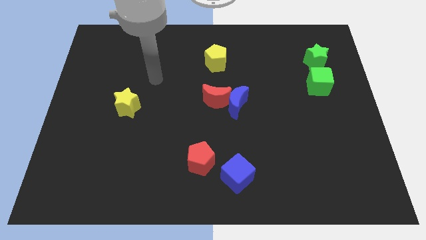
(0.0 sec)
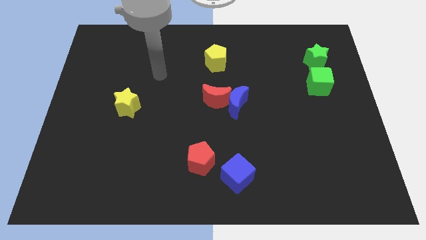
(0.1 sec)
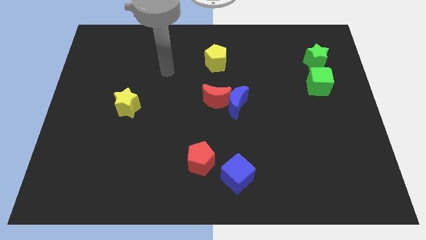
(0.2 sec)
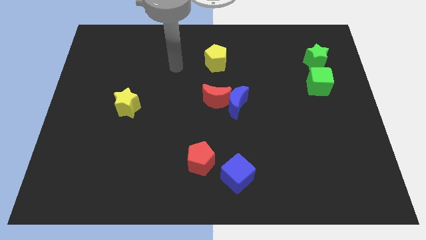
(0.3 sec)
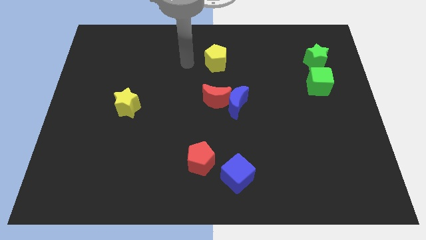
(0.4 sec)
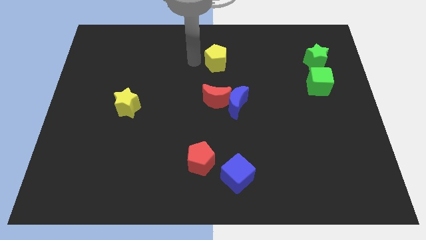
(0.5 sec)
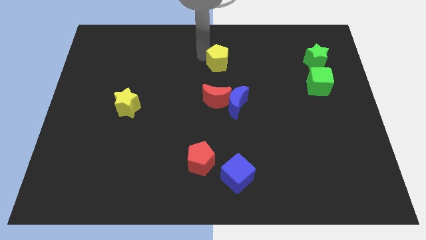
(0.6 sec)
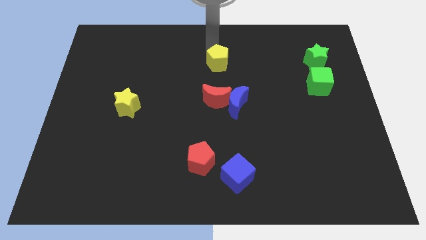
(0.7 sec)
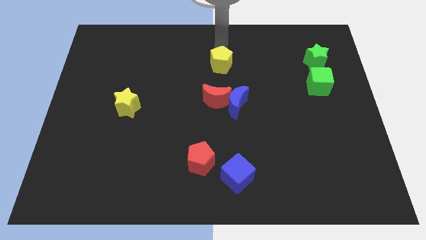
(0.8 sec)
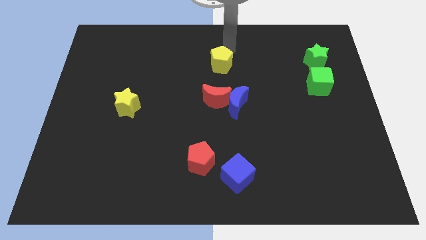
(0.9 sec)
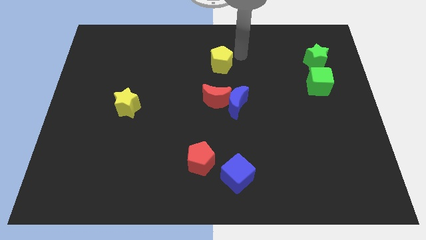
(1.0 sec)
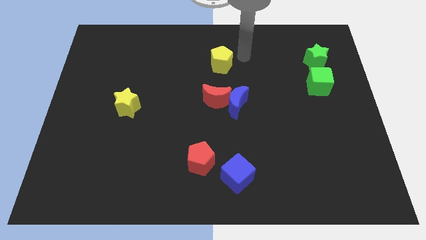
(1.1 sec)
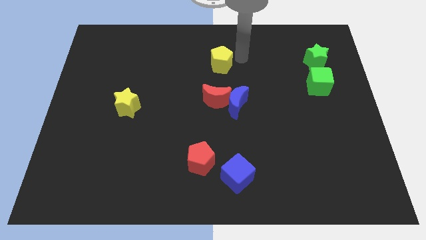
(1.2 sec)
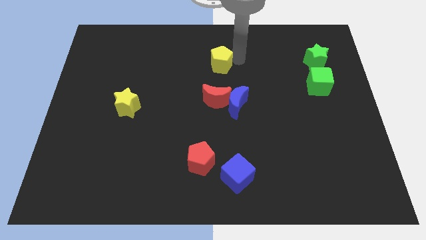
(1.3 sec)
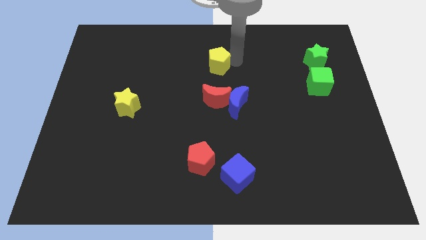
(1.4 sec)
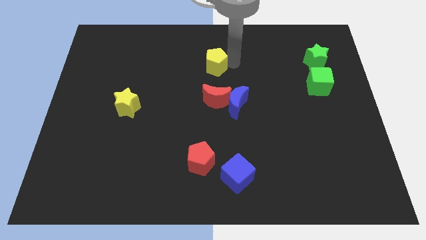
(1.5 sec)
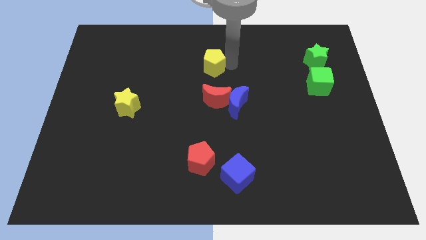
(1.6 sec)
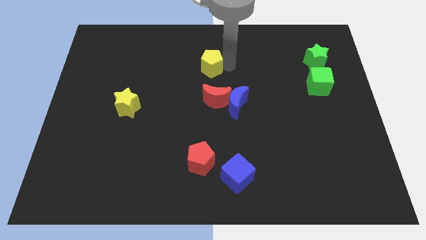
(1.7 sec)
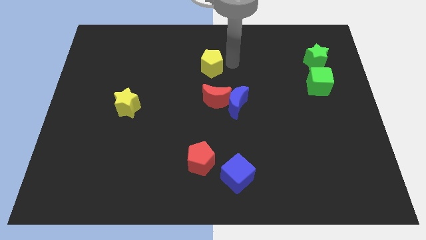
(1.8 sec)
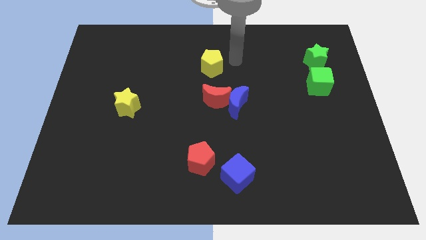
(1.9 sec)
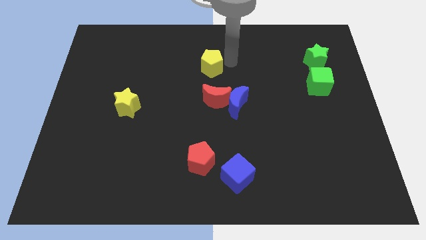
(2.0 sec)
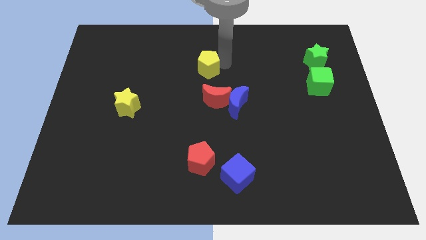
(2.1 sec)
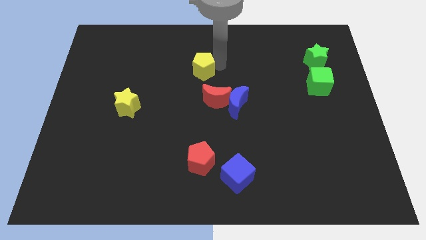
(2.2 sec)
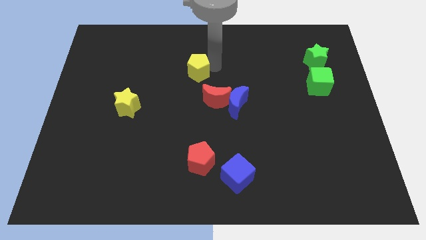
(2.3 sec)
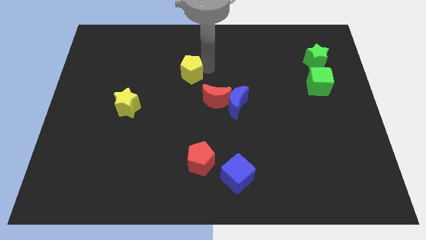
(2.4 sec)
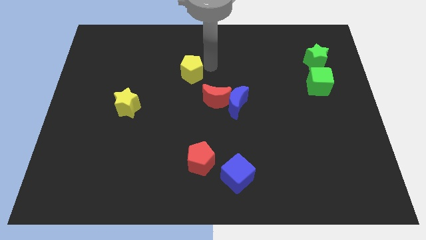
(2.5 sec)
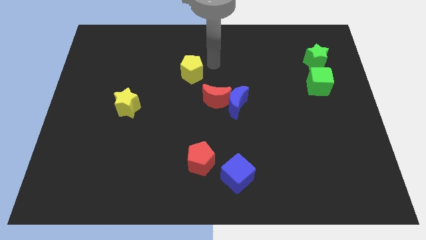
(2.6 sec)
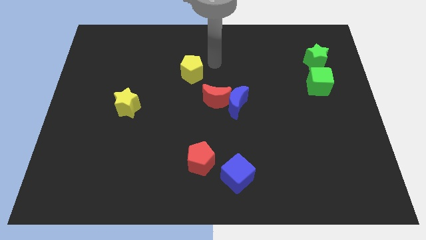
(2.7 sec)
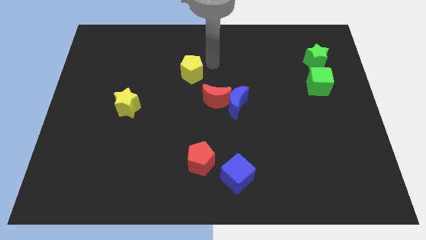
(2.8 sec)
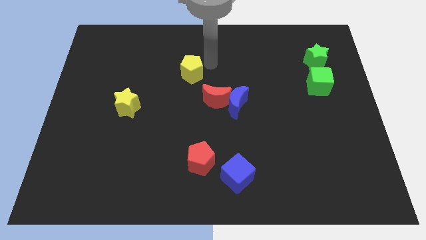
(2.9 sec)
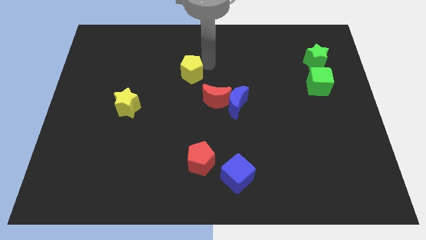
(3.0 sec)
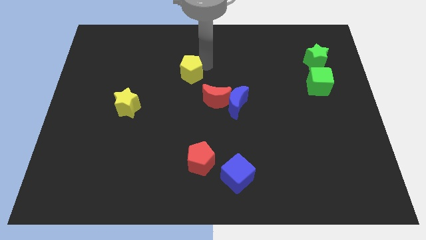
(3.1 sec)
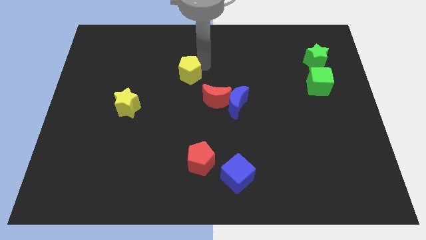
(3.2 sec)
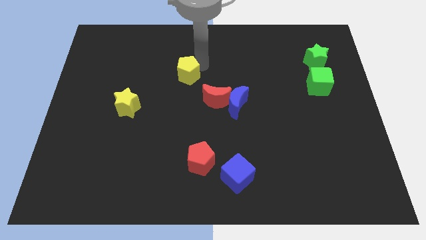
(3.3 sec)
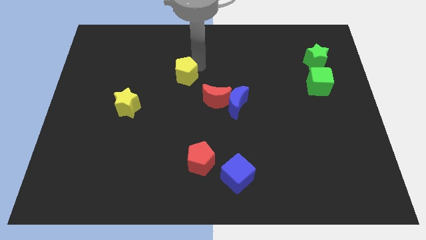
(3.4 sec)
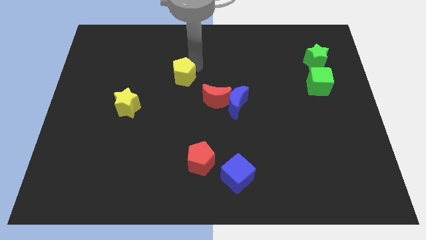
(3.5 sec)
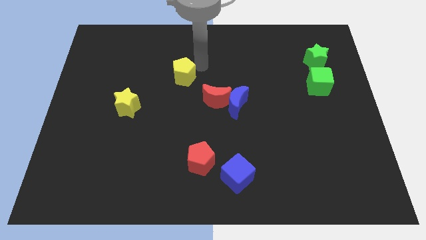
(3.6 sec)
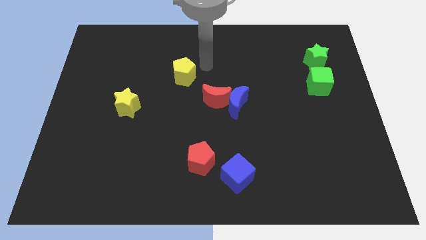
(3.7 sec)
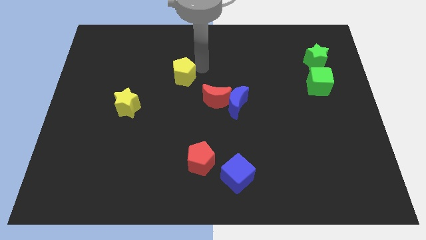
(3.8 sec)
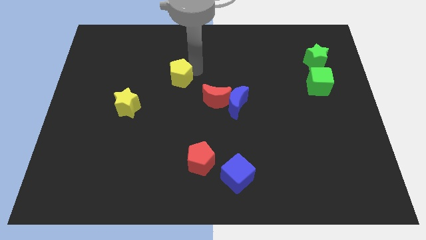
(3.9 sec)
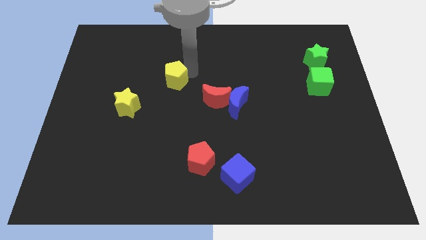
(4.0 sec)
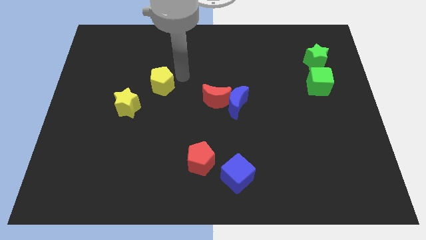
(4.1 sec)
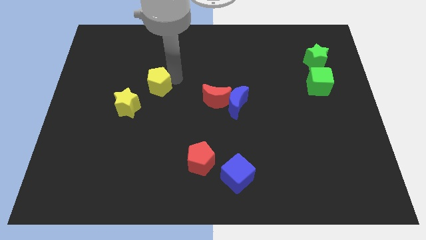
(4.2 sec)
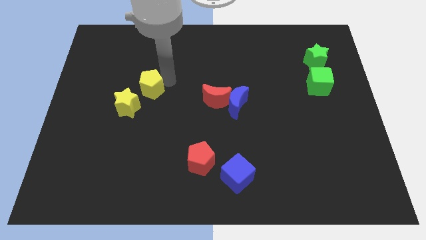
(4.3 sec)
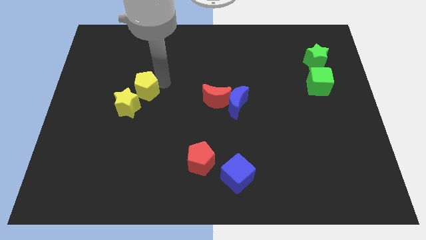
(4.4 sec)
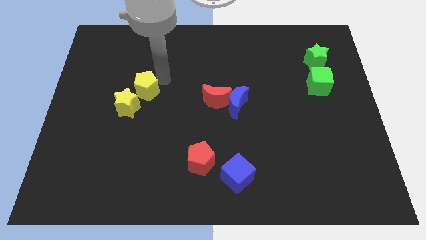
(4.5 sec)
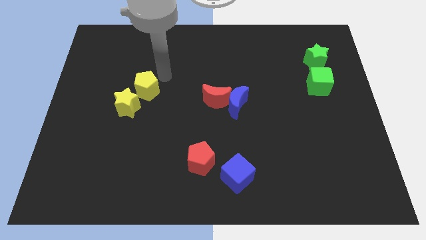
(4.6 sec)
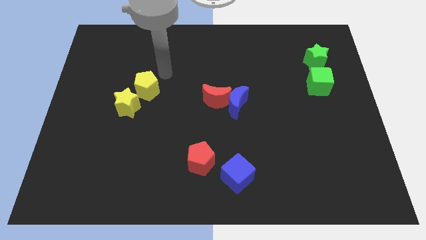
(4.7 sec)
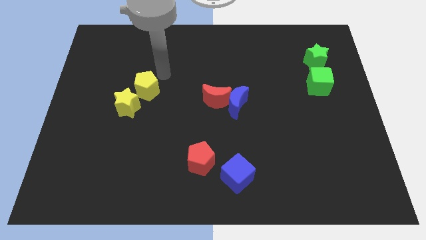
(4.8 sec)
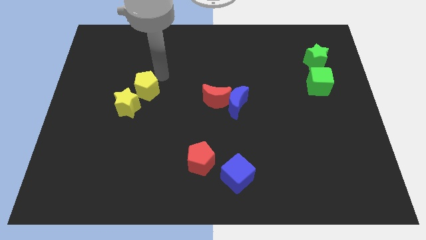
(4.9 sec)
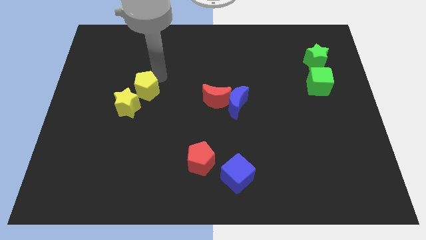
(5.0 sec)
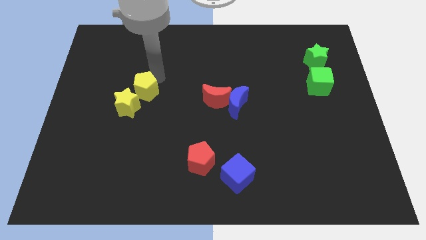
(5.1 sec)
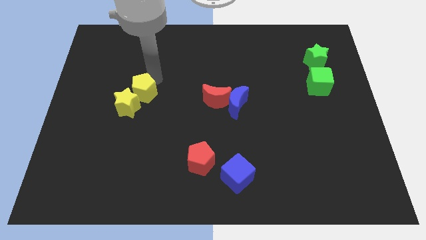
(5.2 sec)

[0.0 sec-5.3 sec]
slide the yellow pentagon close to the yellow star

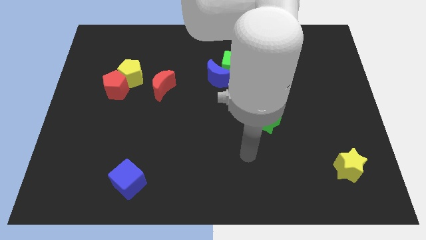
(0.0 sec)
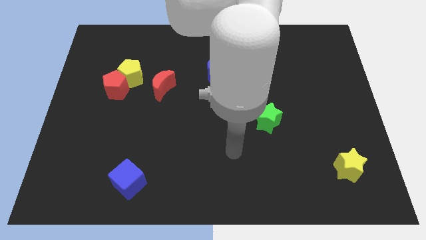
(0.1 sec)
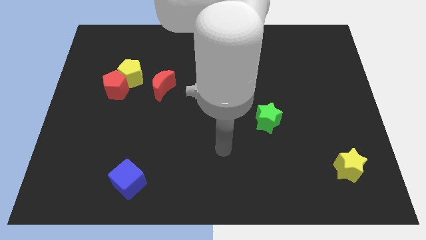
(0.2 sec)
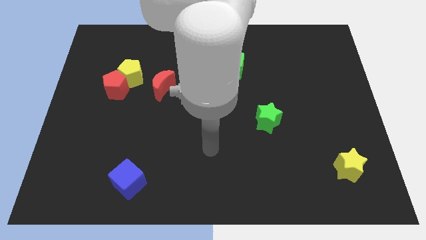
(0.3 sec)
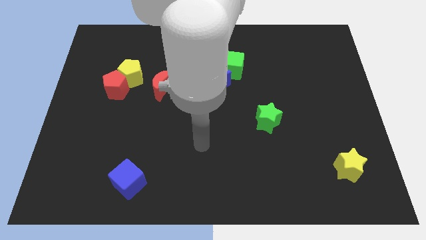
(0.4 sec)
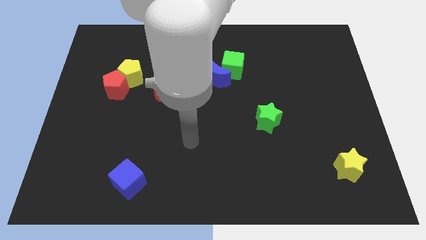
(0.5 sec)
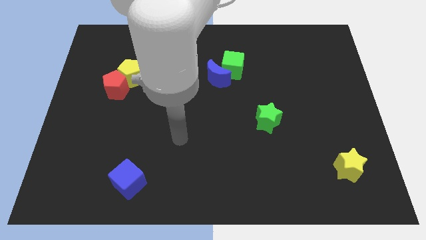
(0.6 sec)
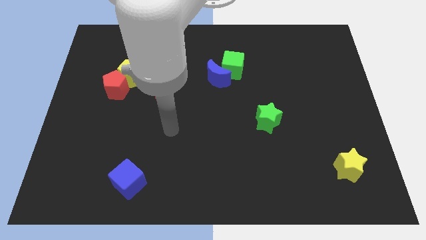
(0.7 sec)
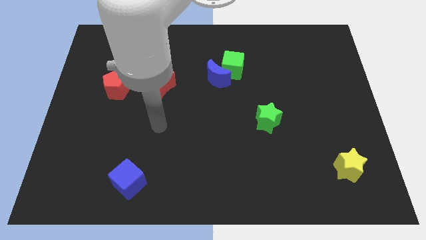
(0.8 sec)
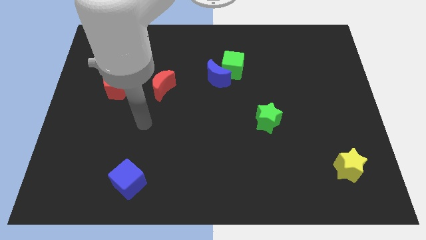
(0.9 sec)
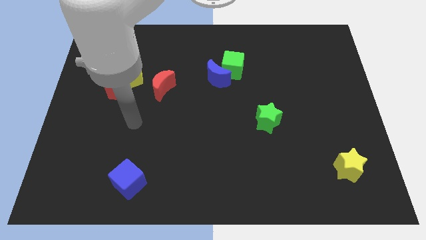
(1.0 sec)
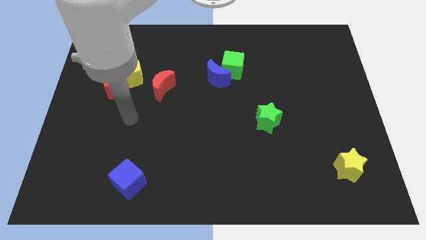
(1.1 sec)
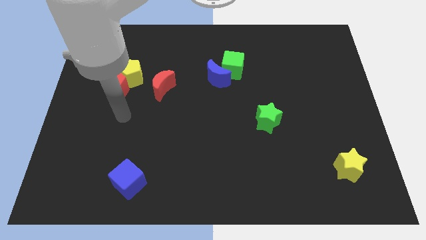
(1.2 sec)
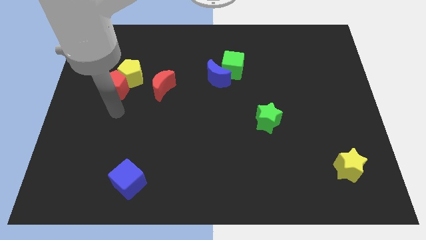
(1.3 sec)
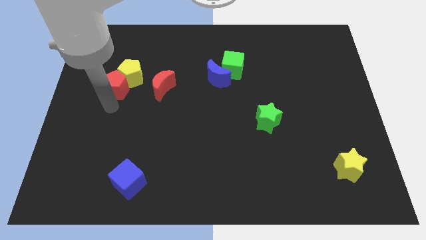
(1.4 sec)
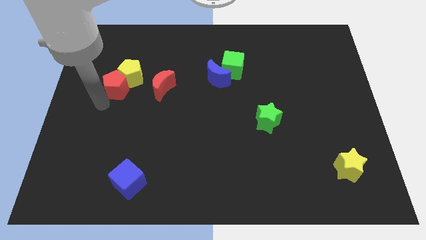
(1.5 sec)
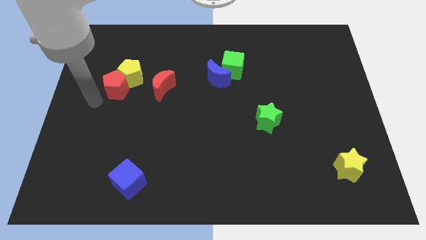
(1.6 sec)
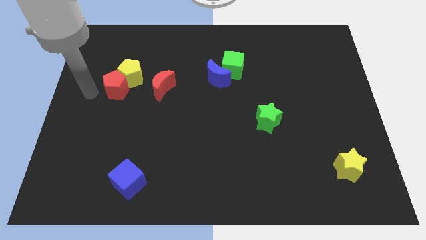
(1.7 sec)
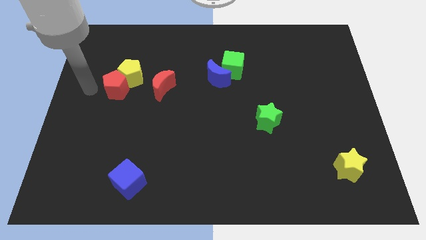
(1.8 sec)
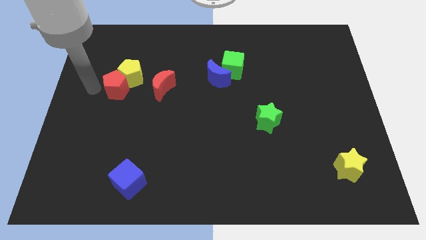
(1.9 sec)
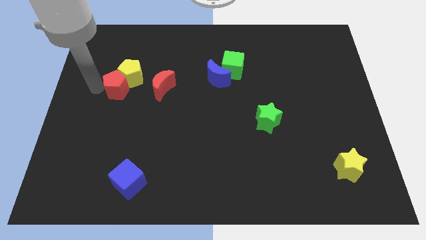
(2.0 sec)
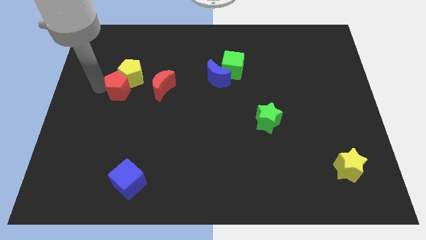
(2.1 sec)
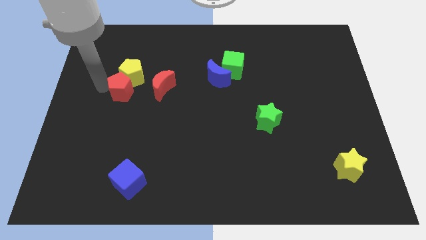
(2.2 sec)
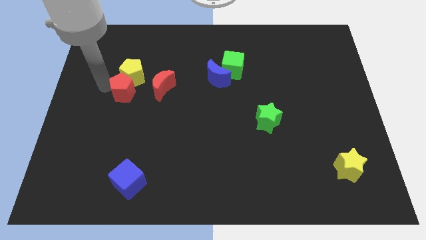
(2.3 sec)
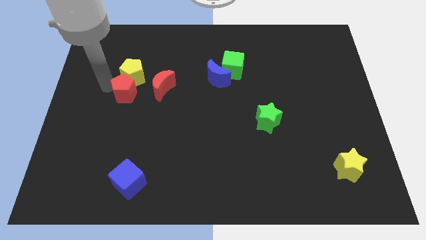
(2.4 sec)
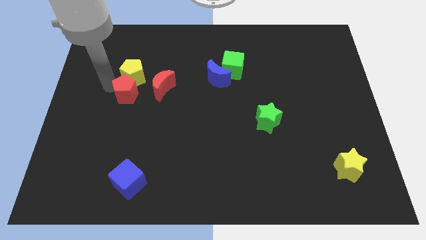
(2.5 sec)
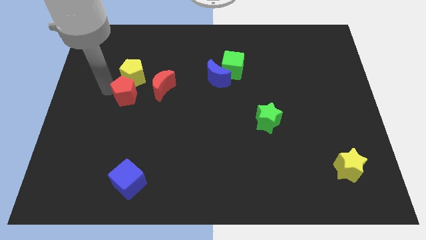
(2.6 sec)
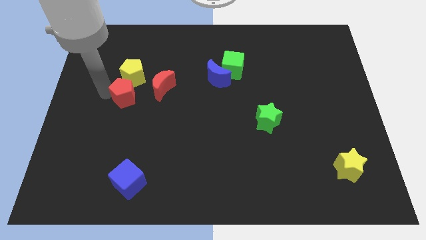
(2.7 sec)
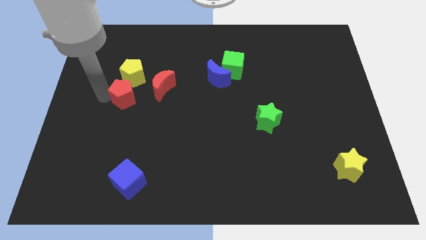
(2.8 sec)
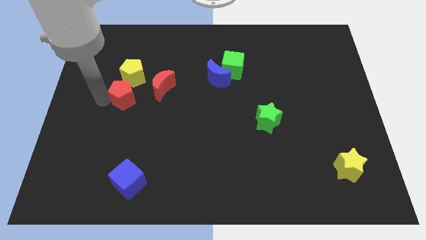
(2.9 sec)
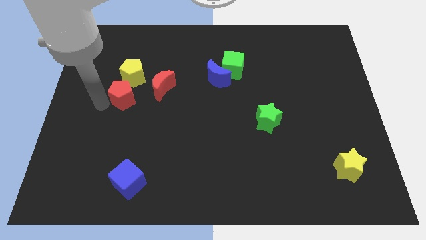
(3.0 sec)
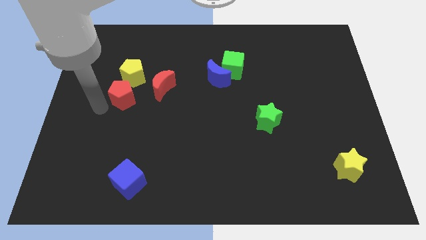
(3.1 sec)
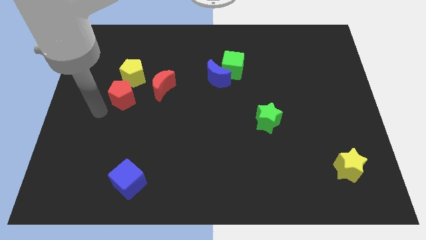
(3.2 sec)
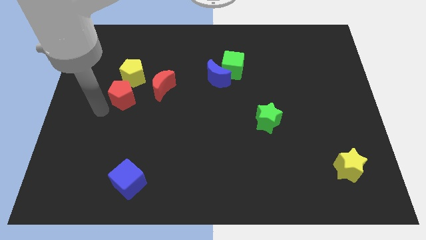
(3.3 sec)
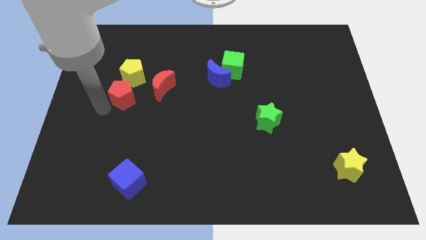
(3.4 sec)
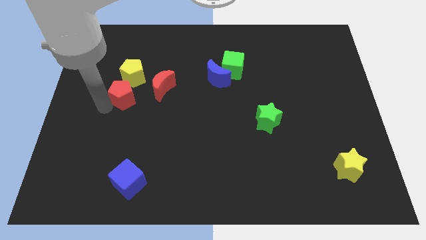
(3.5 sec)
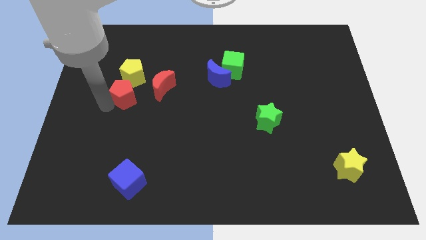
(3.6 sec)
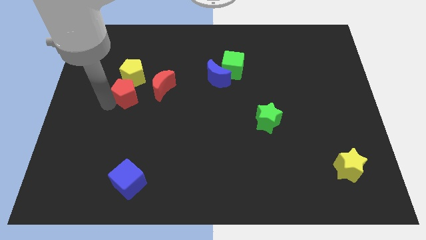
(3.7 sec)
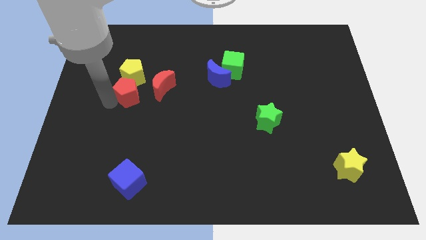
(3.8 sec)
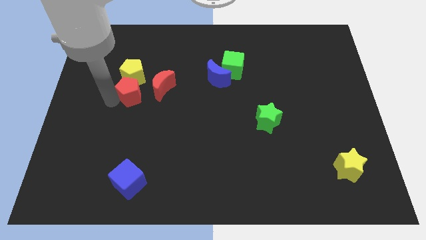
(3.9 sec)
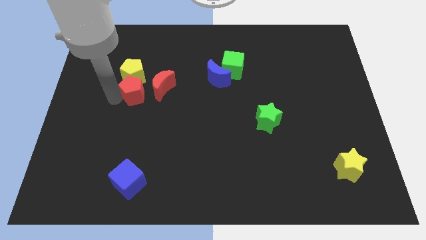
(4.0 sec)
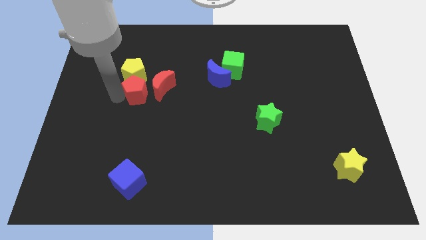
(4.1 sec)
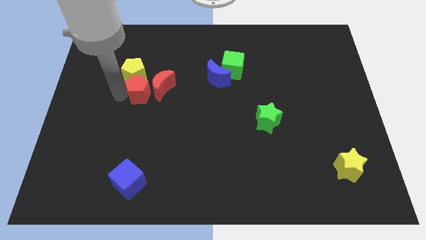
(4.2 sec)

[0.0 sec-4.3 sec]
slide the red pentagon to the red moon
